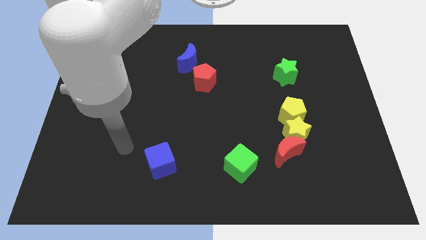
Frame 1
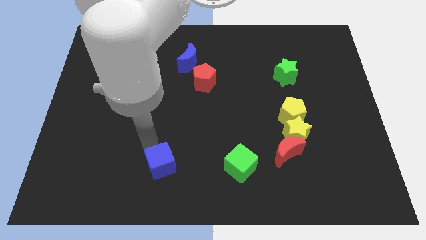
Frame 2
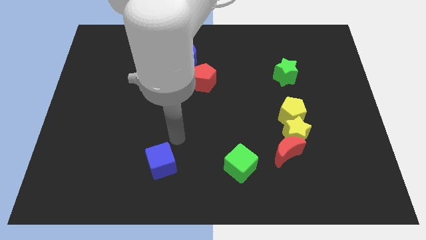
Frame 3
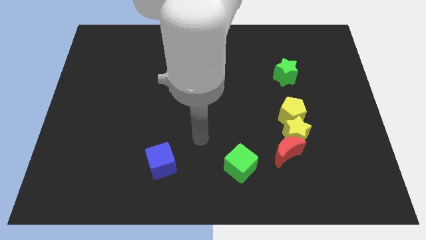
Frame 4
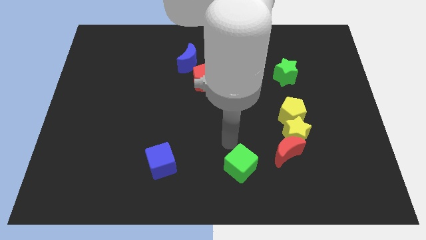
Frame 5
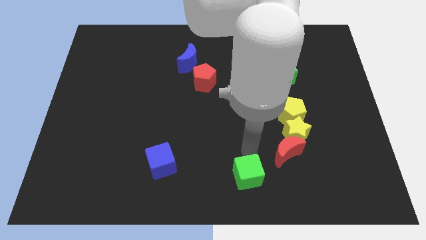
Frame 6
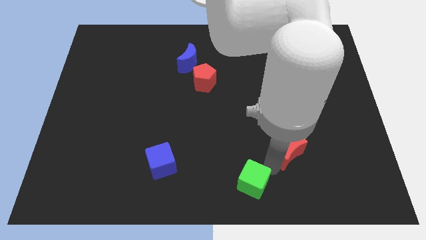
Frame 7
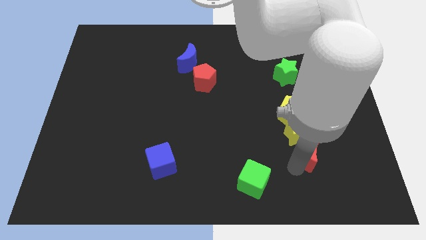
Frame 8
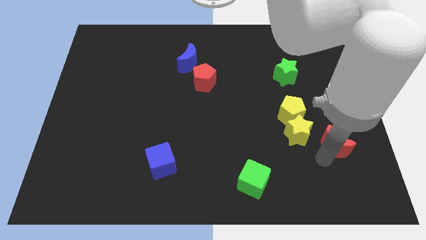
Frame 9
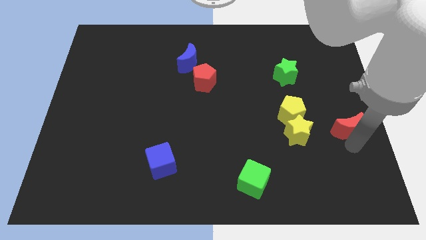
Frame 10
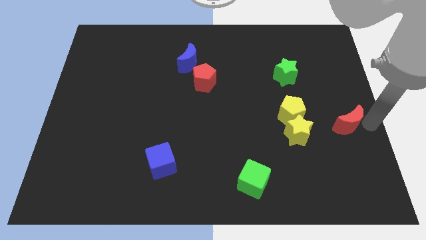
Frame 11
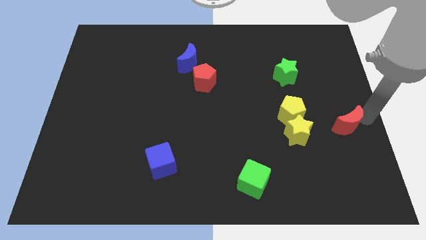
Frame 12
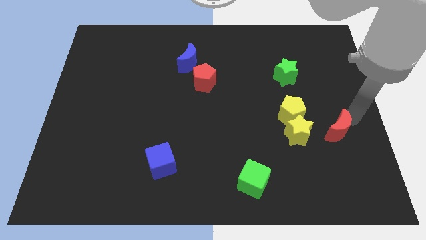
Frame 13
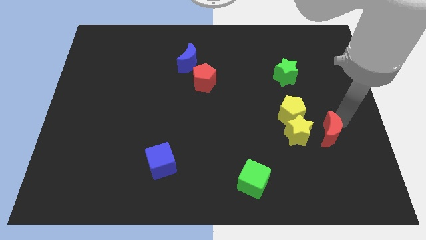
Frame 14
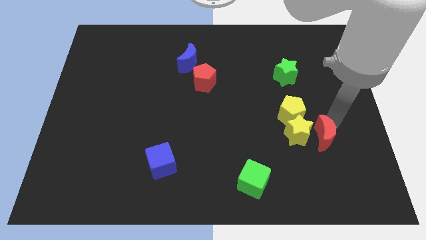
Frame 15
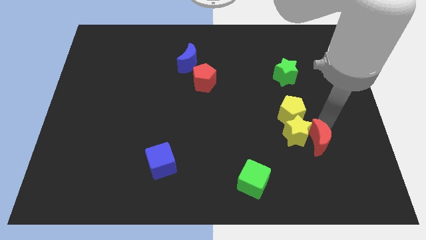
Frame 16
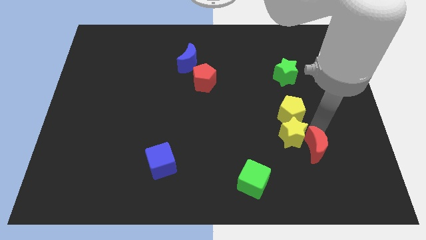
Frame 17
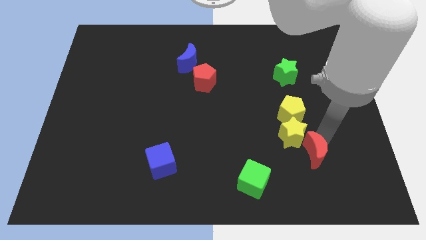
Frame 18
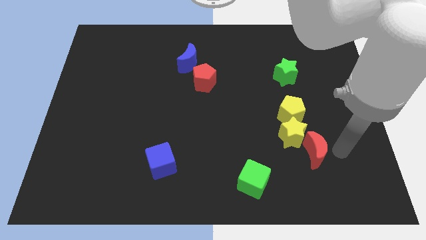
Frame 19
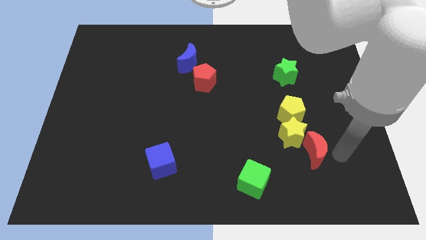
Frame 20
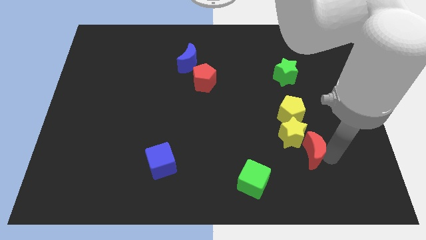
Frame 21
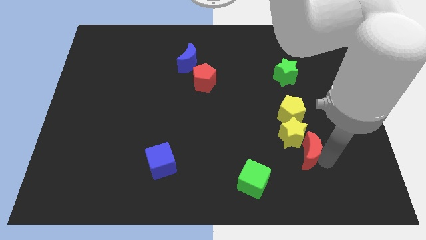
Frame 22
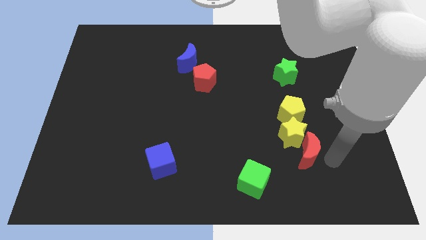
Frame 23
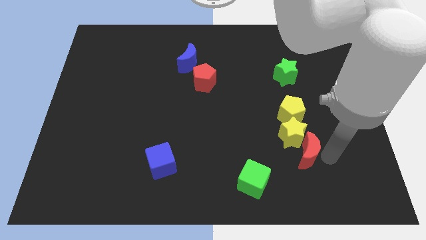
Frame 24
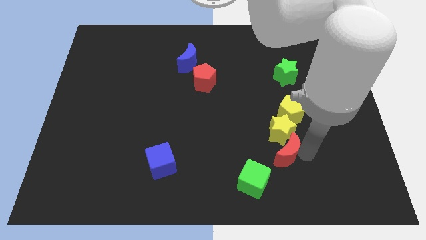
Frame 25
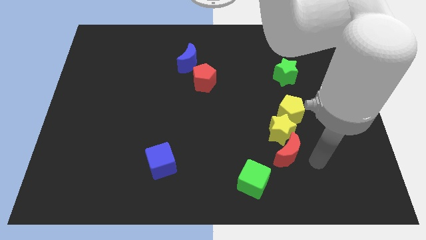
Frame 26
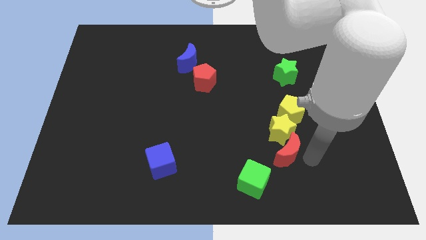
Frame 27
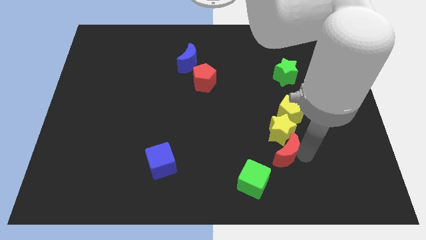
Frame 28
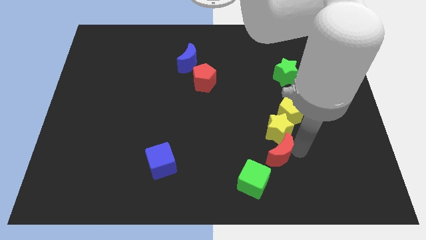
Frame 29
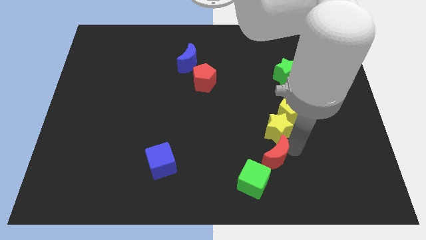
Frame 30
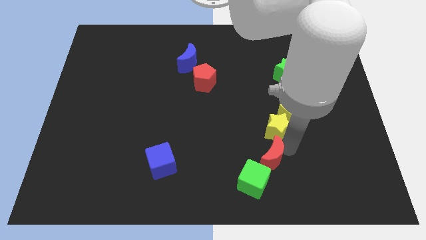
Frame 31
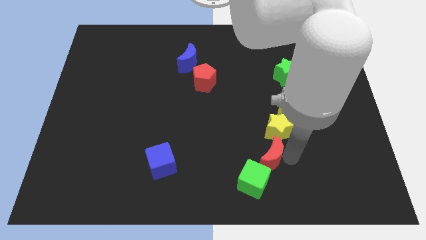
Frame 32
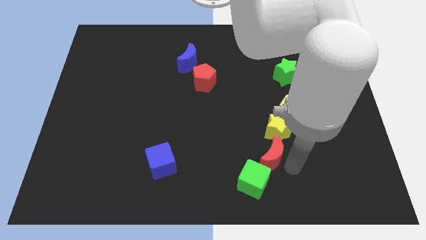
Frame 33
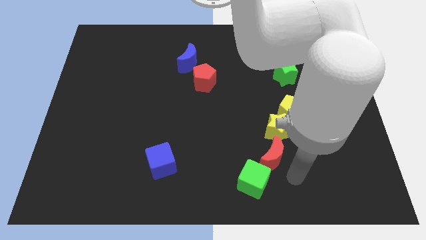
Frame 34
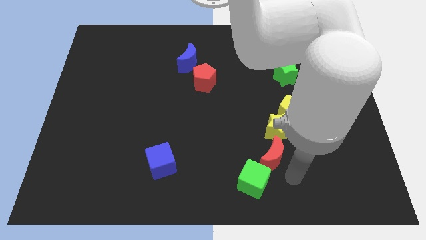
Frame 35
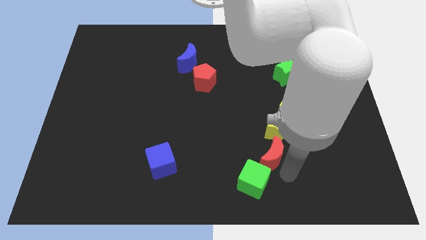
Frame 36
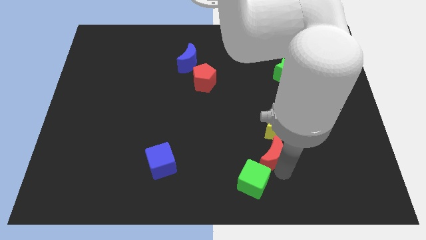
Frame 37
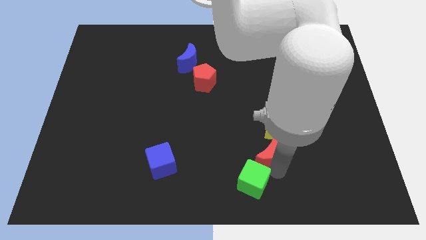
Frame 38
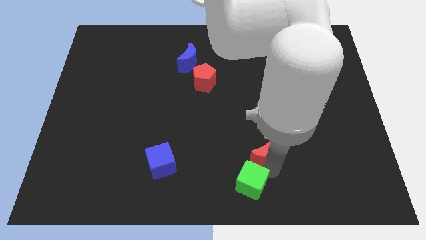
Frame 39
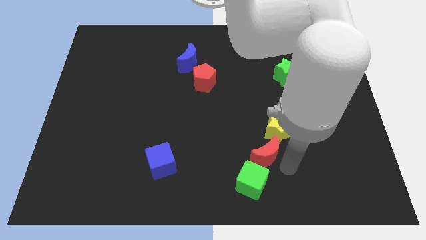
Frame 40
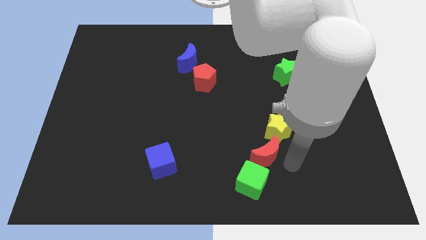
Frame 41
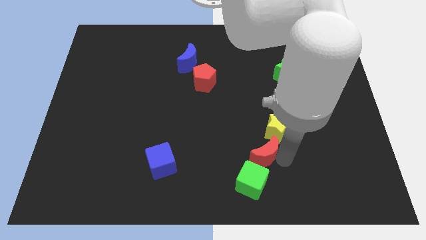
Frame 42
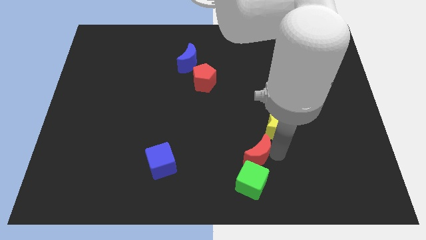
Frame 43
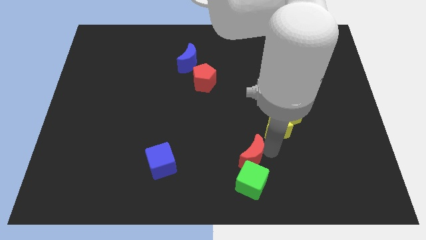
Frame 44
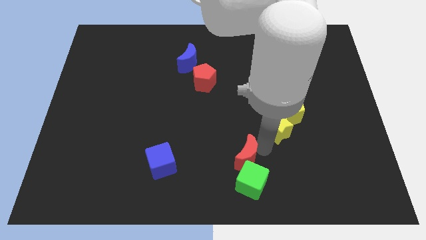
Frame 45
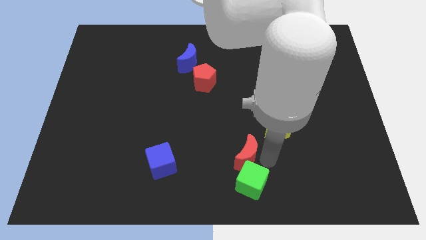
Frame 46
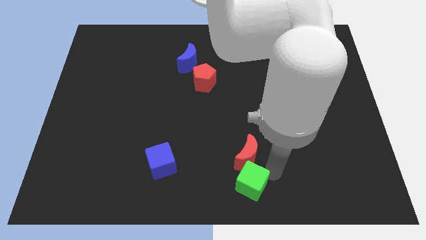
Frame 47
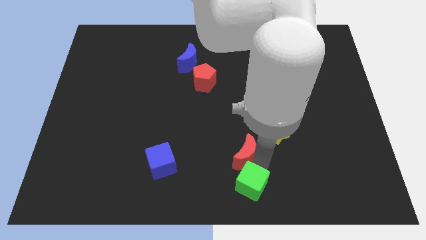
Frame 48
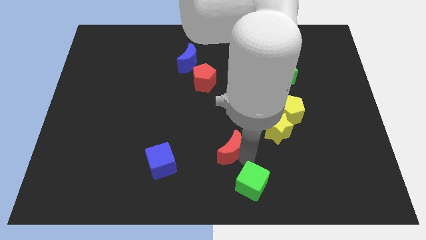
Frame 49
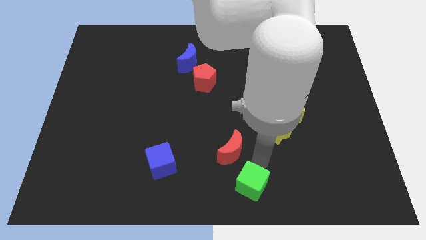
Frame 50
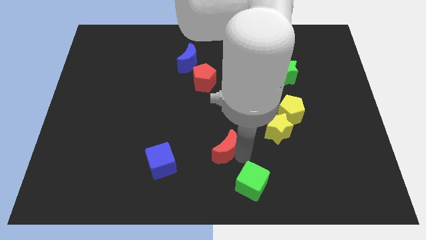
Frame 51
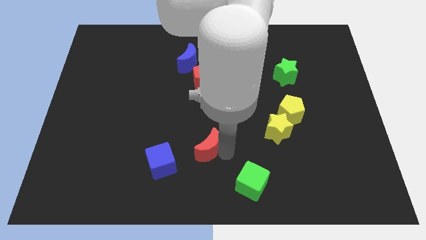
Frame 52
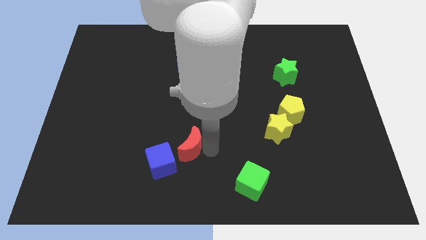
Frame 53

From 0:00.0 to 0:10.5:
push the red moon left
